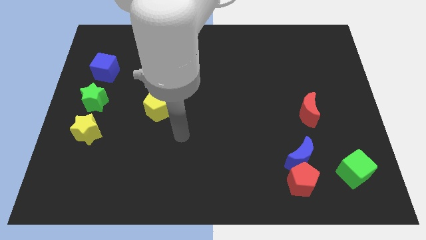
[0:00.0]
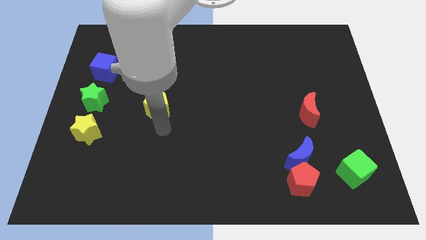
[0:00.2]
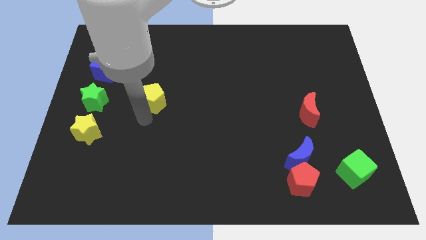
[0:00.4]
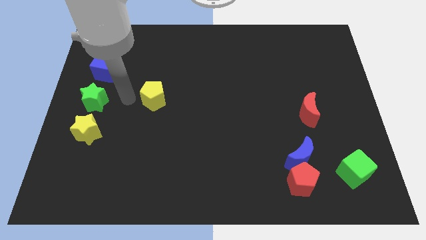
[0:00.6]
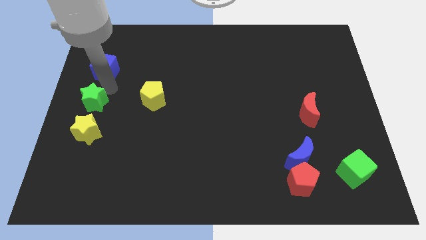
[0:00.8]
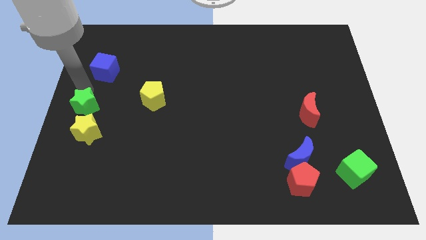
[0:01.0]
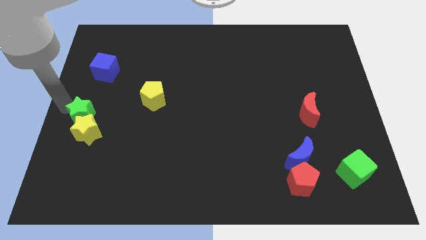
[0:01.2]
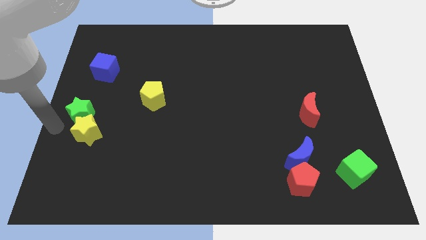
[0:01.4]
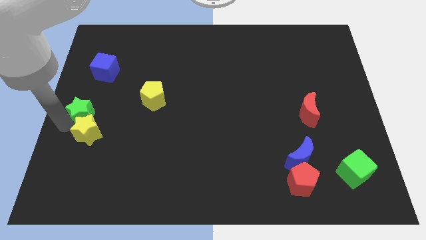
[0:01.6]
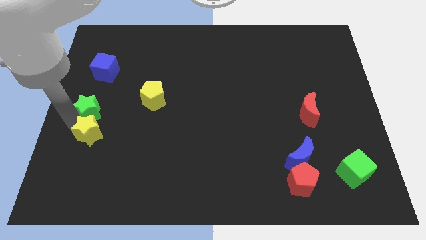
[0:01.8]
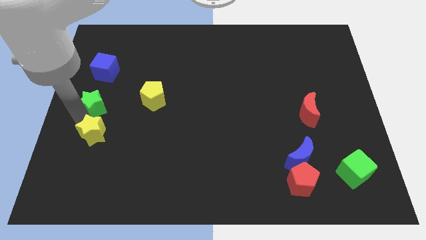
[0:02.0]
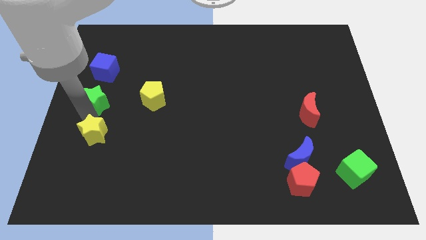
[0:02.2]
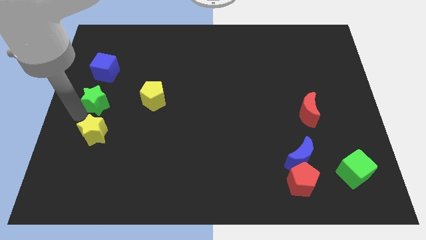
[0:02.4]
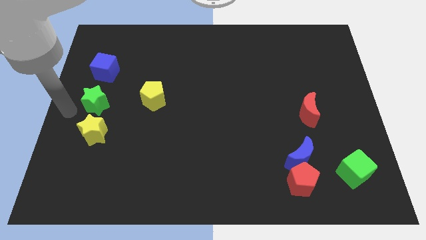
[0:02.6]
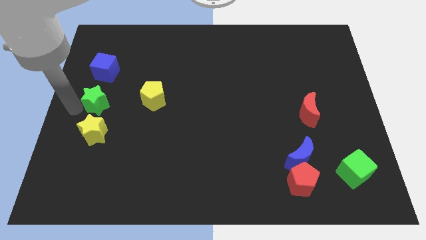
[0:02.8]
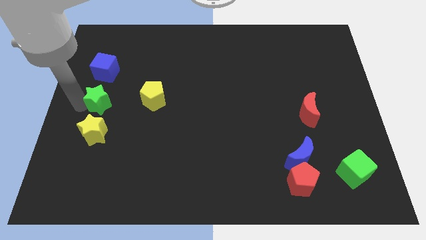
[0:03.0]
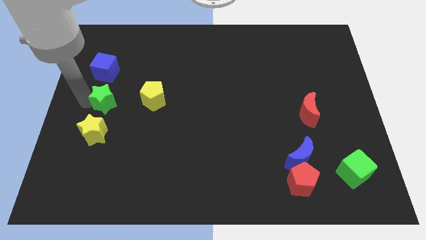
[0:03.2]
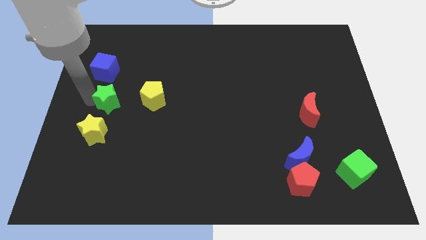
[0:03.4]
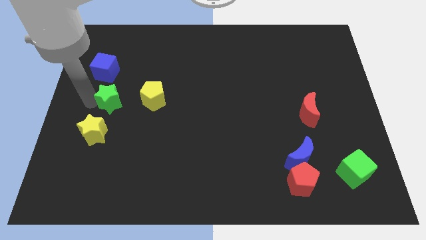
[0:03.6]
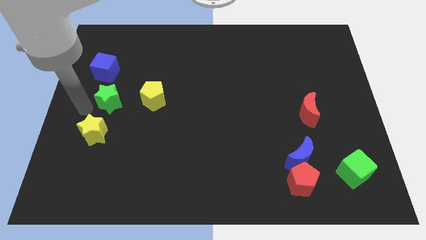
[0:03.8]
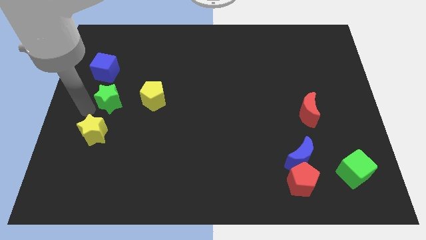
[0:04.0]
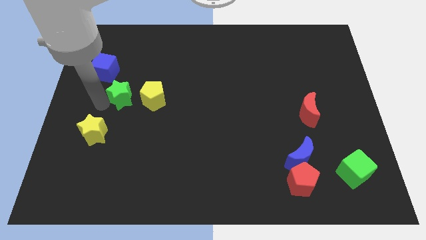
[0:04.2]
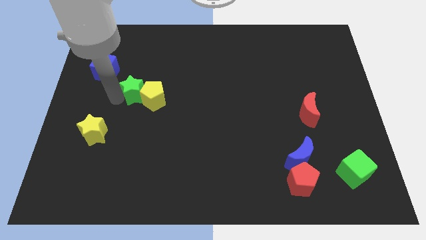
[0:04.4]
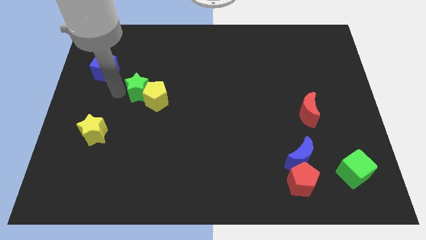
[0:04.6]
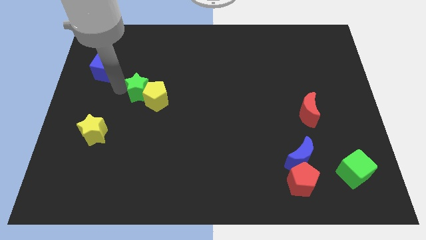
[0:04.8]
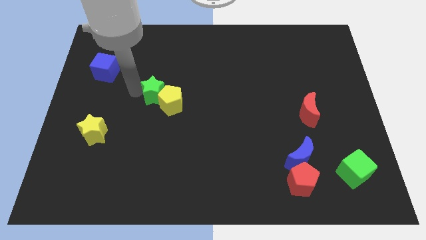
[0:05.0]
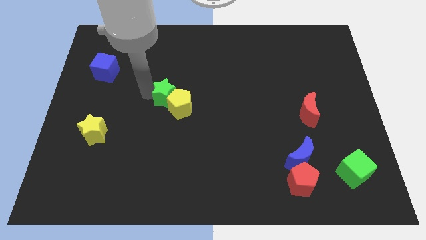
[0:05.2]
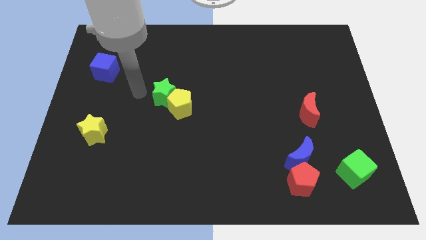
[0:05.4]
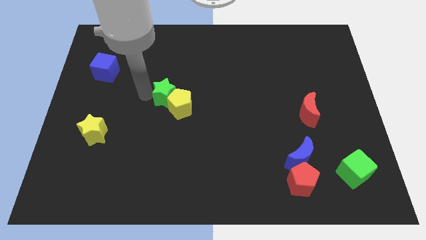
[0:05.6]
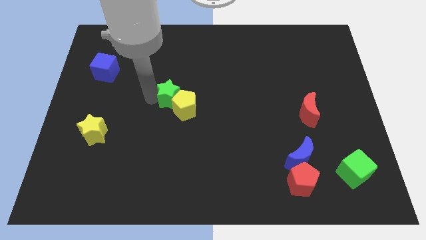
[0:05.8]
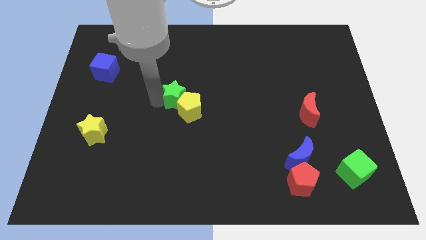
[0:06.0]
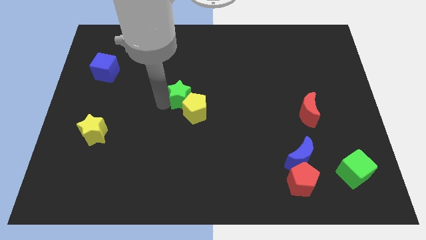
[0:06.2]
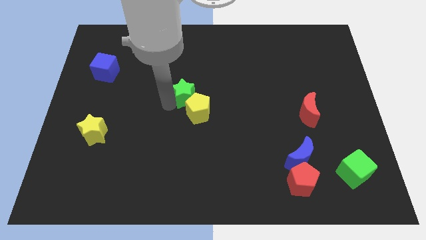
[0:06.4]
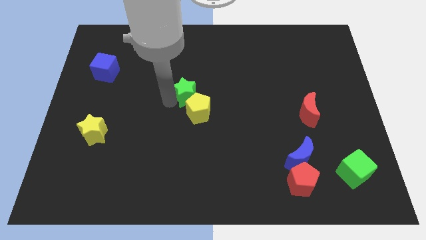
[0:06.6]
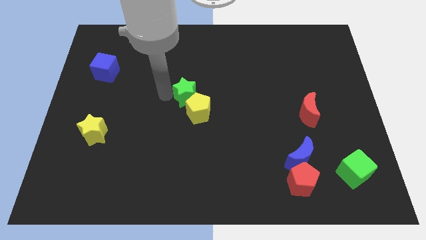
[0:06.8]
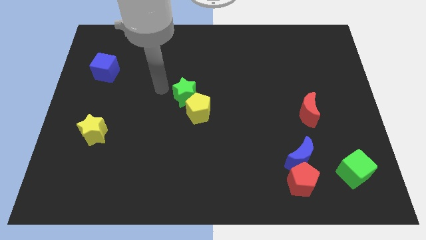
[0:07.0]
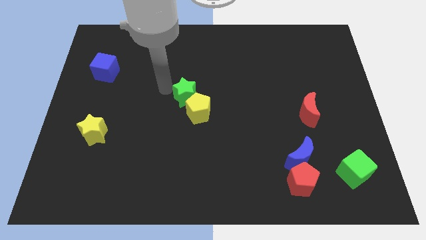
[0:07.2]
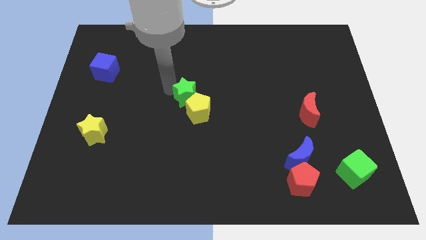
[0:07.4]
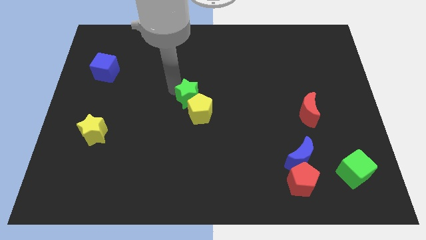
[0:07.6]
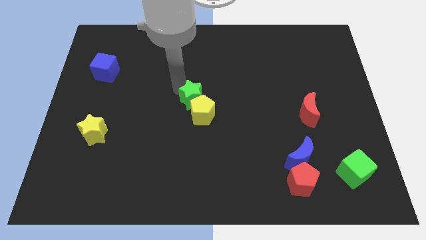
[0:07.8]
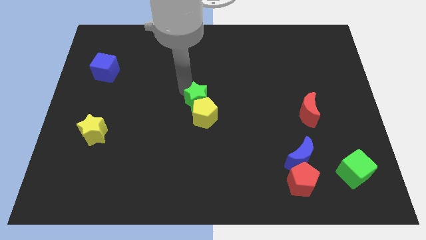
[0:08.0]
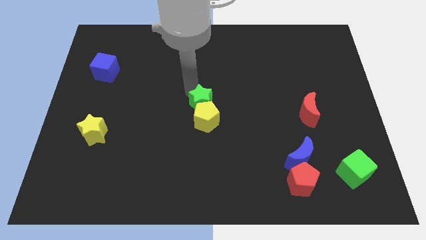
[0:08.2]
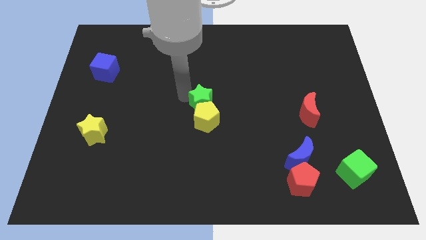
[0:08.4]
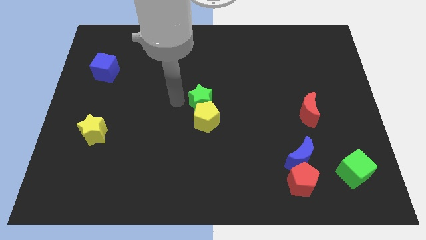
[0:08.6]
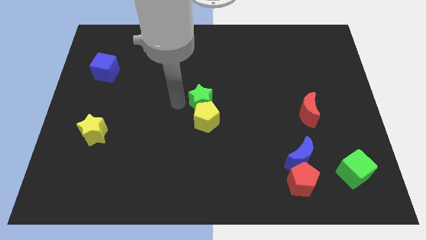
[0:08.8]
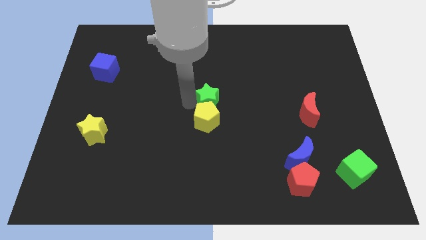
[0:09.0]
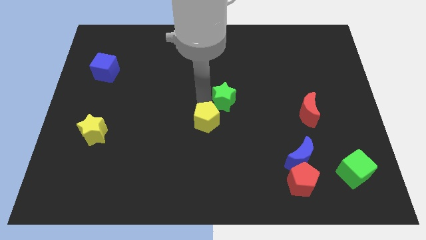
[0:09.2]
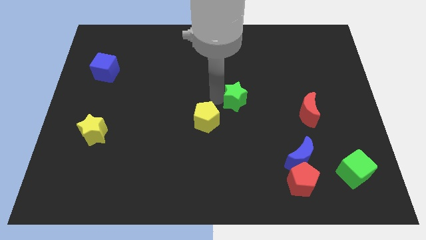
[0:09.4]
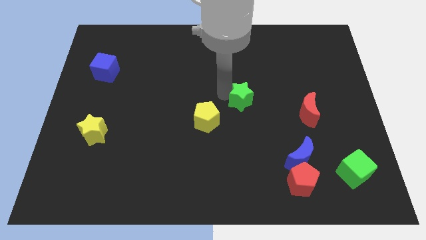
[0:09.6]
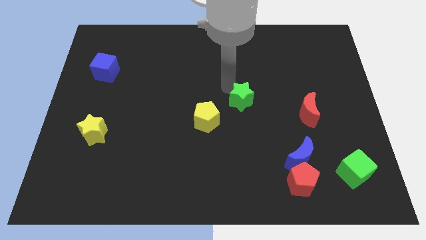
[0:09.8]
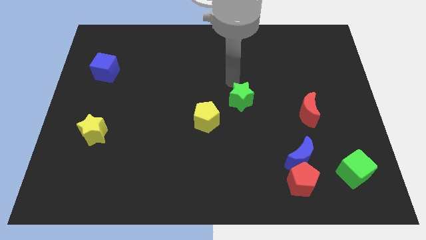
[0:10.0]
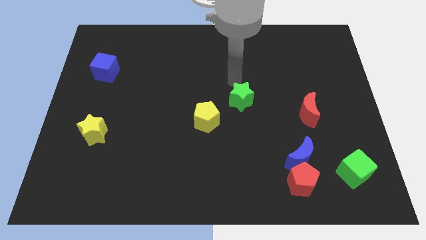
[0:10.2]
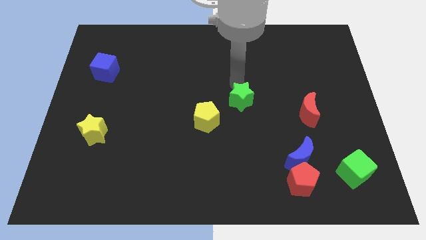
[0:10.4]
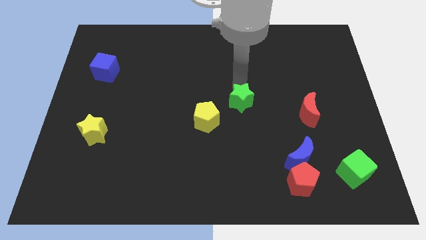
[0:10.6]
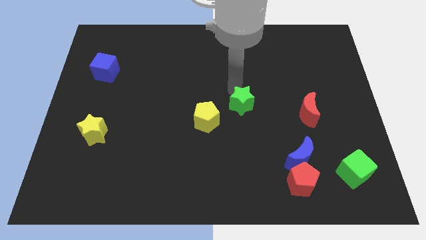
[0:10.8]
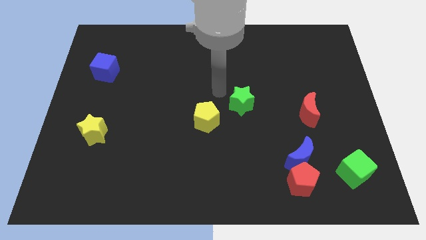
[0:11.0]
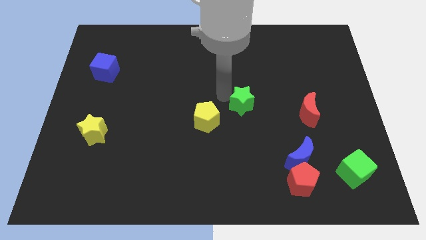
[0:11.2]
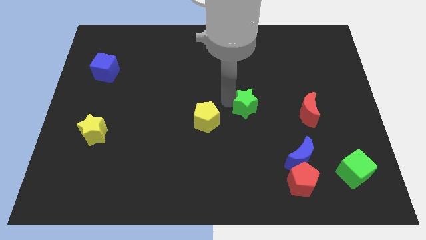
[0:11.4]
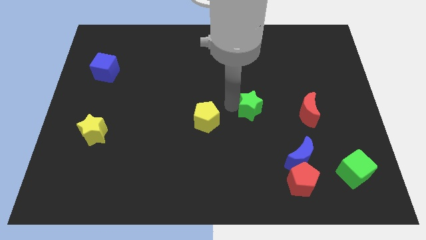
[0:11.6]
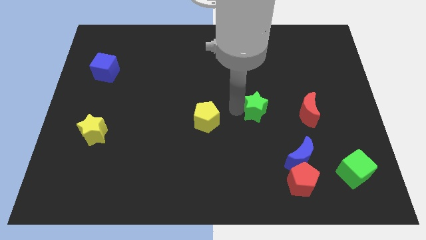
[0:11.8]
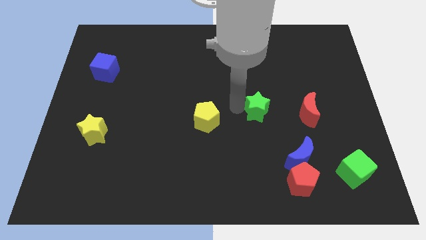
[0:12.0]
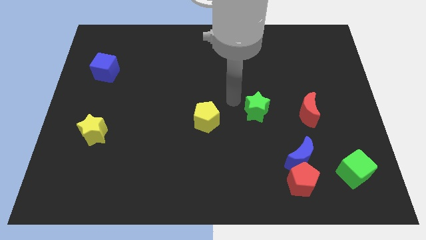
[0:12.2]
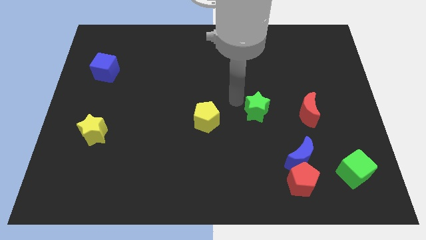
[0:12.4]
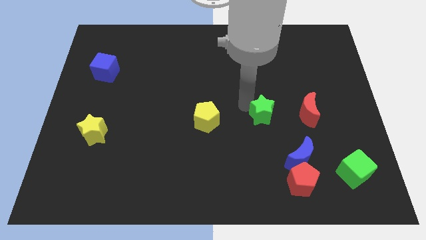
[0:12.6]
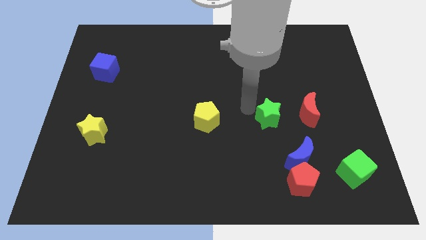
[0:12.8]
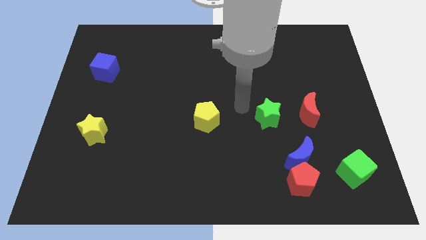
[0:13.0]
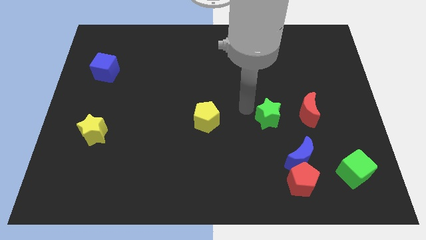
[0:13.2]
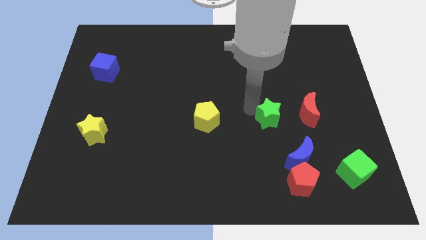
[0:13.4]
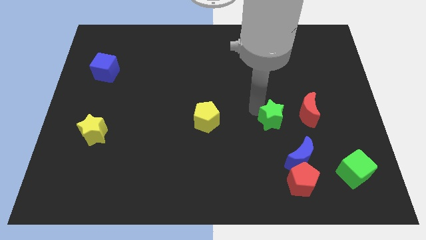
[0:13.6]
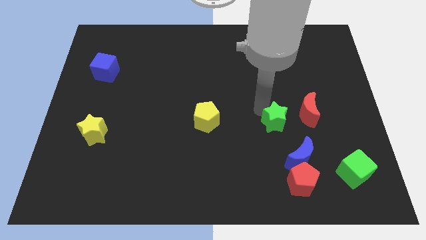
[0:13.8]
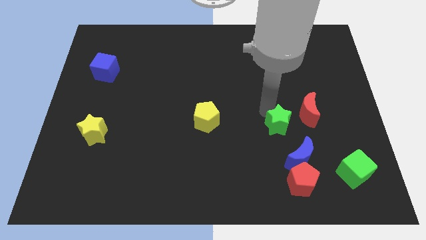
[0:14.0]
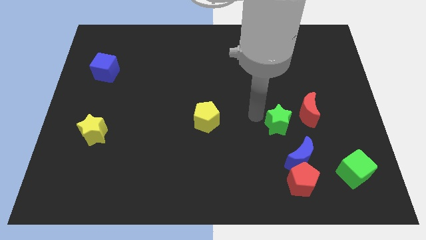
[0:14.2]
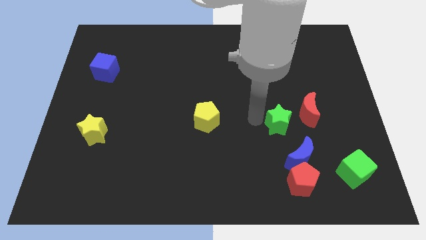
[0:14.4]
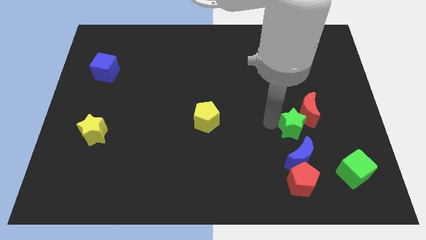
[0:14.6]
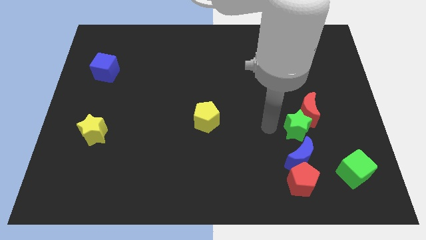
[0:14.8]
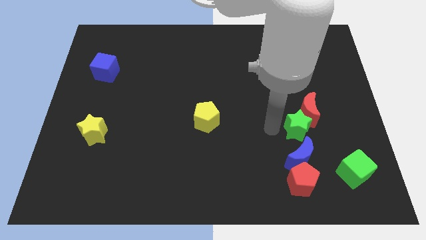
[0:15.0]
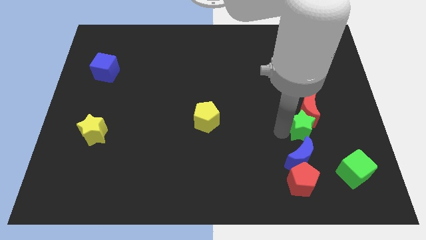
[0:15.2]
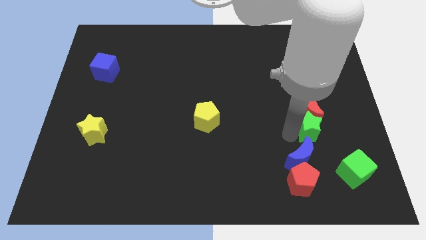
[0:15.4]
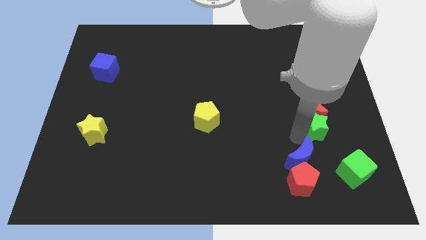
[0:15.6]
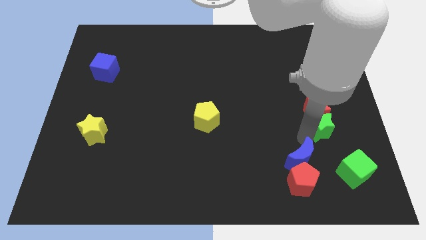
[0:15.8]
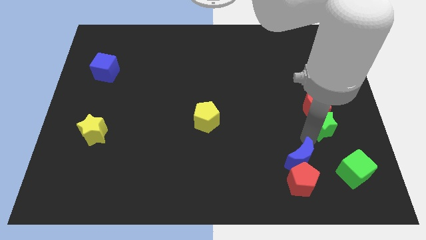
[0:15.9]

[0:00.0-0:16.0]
push the green star to the top of the green cube
